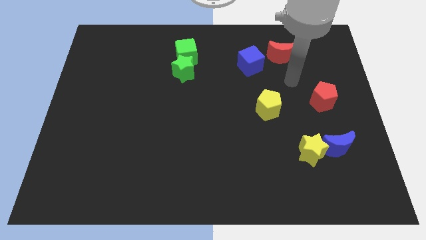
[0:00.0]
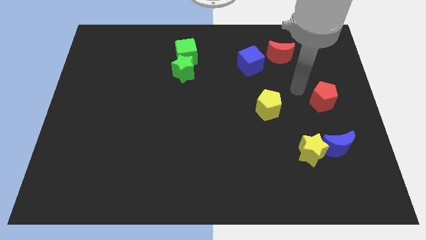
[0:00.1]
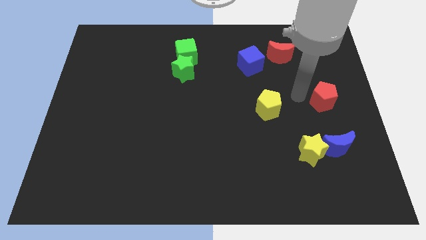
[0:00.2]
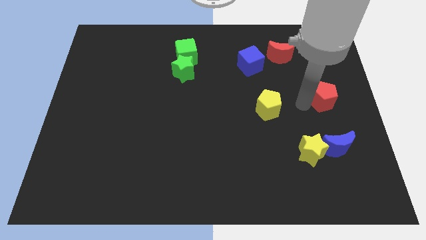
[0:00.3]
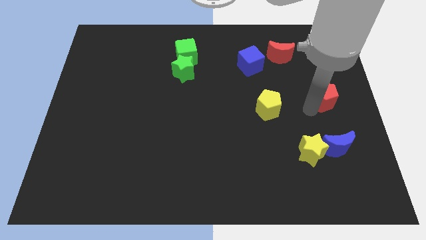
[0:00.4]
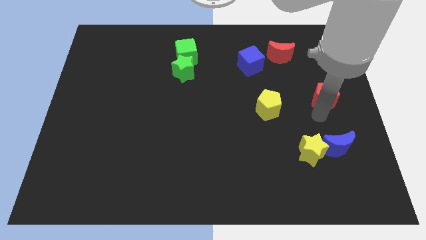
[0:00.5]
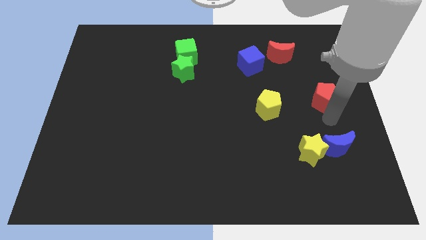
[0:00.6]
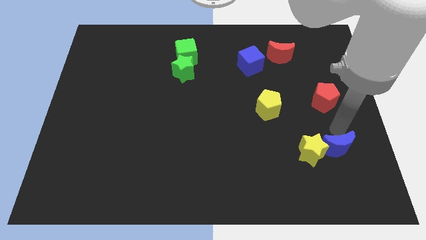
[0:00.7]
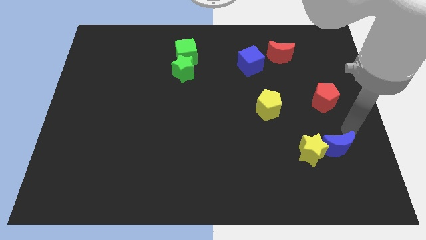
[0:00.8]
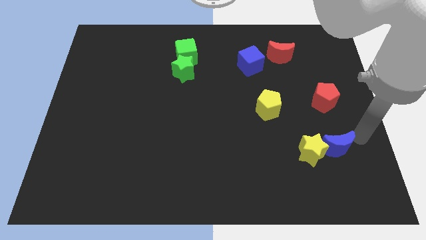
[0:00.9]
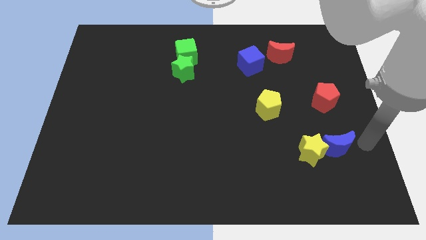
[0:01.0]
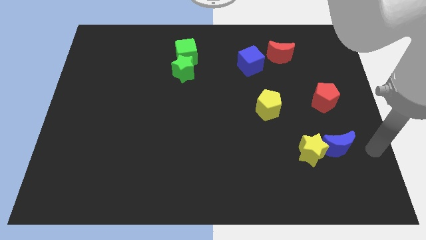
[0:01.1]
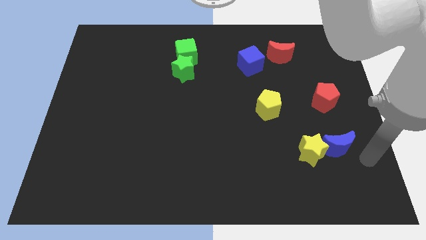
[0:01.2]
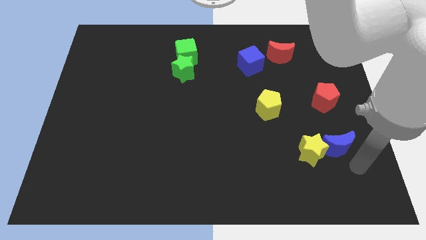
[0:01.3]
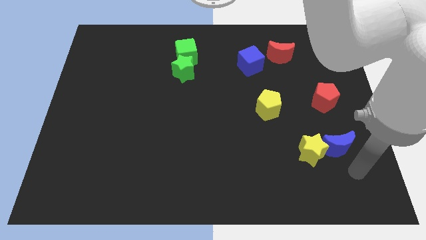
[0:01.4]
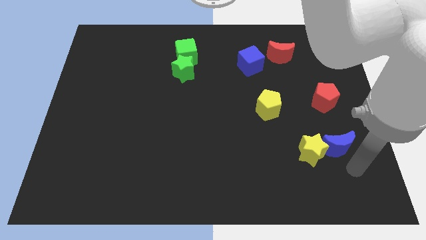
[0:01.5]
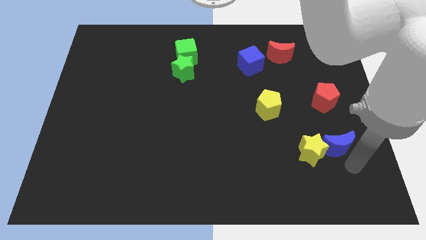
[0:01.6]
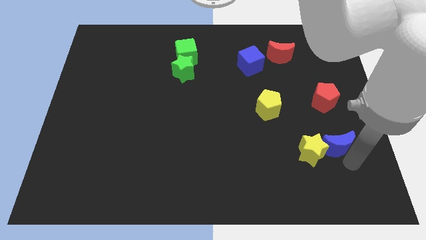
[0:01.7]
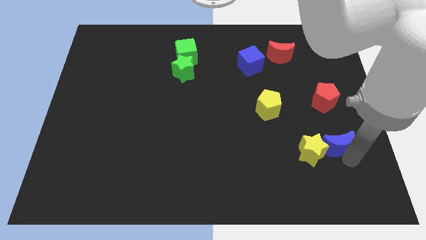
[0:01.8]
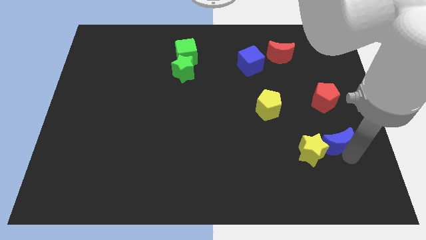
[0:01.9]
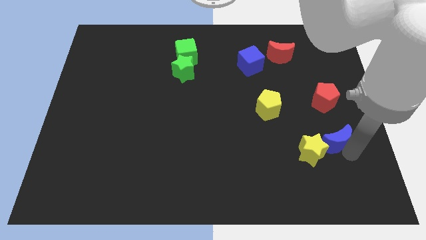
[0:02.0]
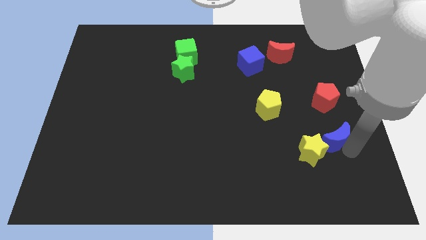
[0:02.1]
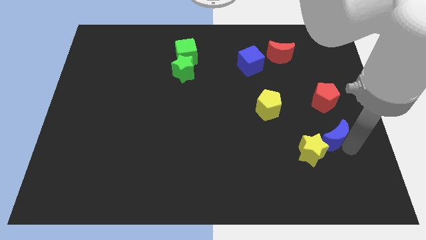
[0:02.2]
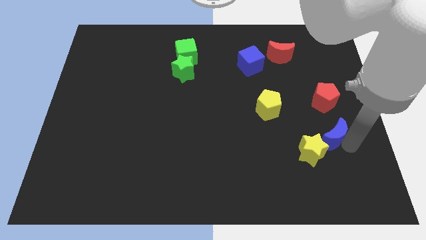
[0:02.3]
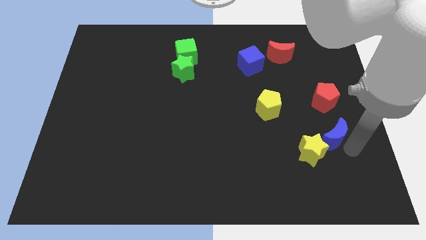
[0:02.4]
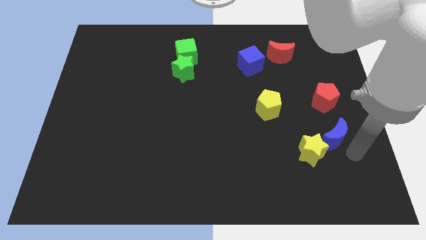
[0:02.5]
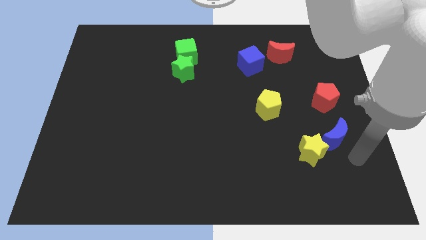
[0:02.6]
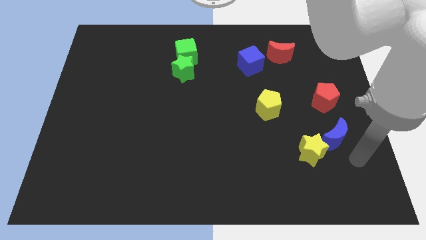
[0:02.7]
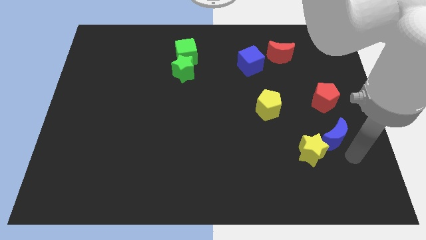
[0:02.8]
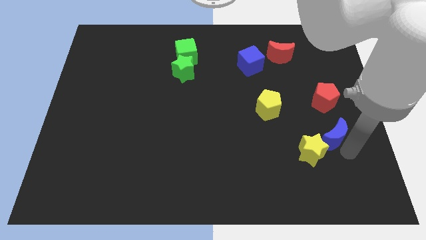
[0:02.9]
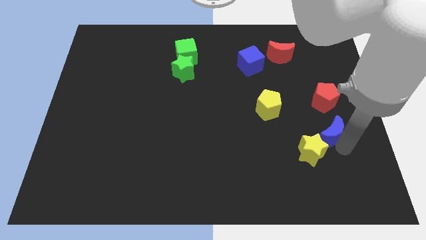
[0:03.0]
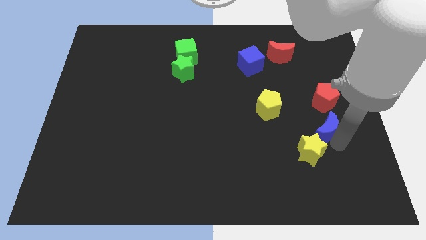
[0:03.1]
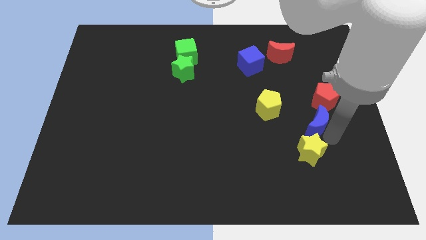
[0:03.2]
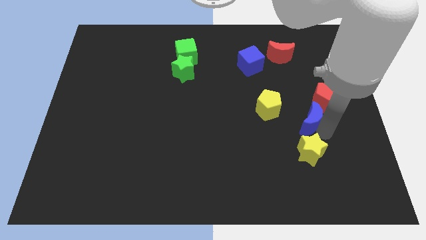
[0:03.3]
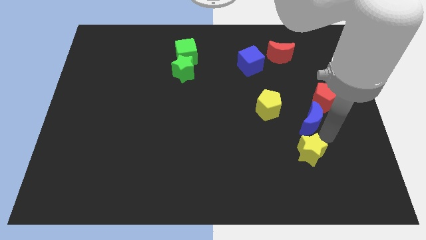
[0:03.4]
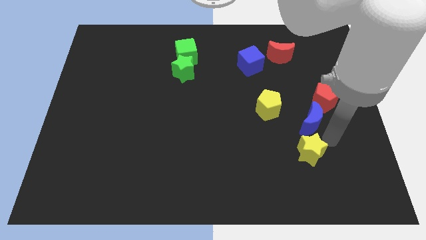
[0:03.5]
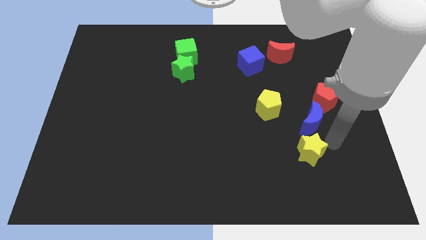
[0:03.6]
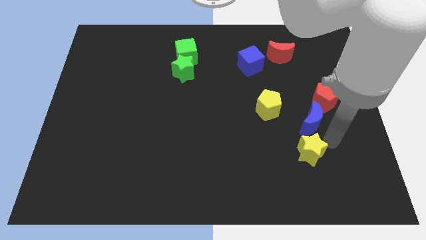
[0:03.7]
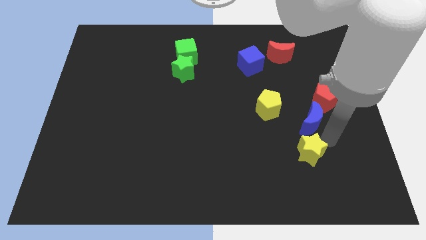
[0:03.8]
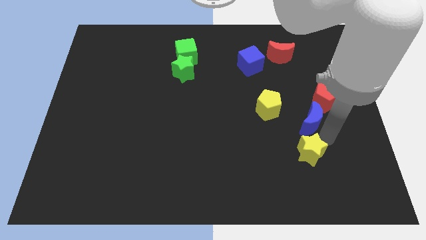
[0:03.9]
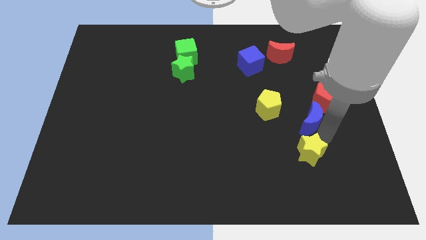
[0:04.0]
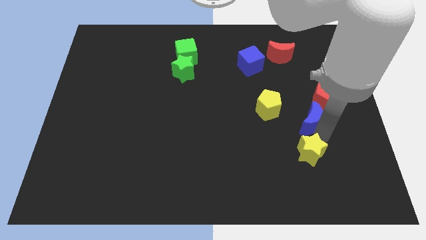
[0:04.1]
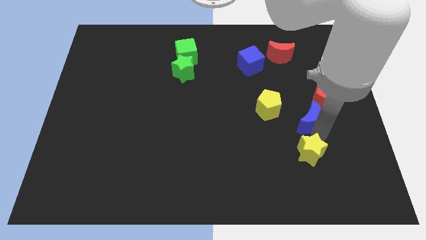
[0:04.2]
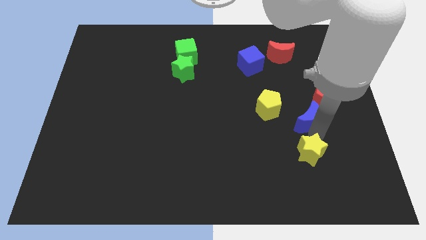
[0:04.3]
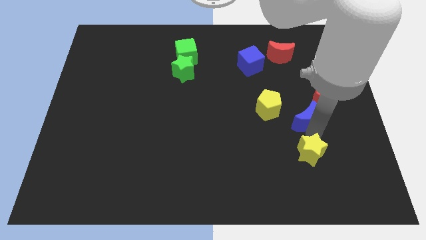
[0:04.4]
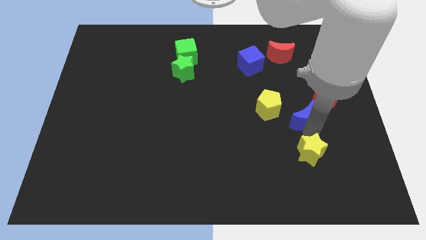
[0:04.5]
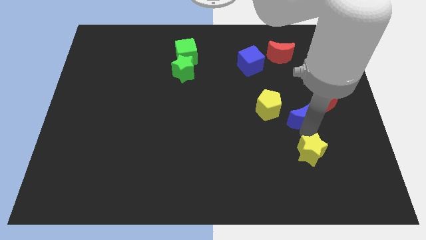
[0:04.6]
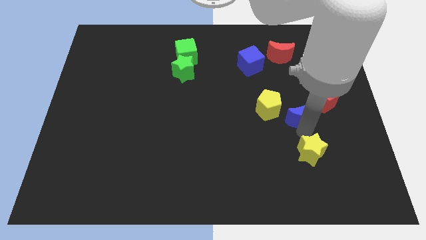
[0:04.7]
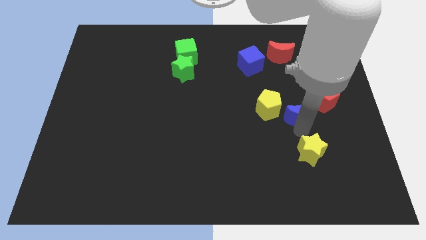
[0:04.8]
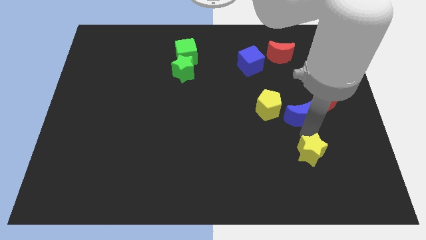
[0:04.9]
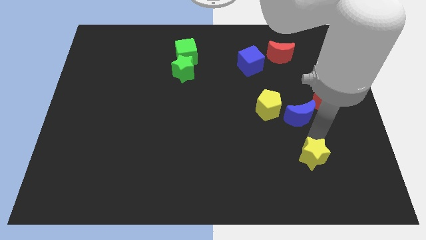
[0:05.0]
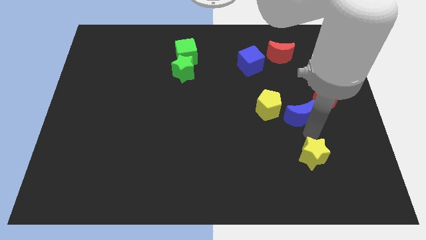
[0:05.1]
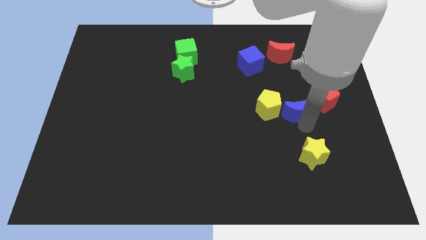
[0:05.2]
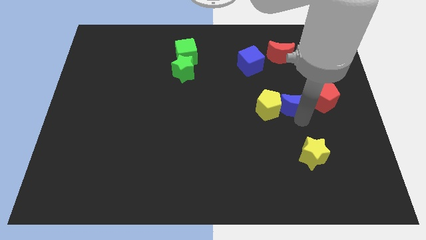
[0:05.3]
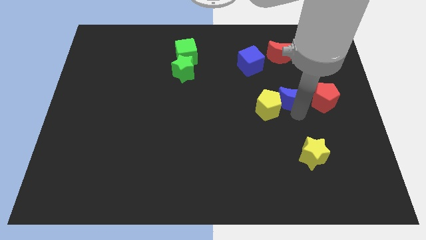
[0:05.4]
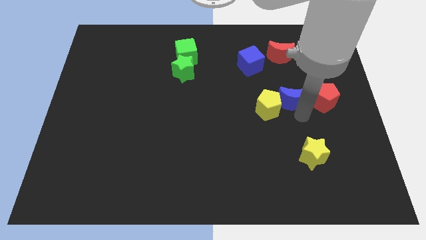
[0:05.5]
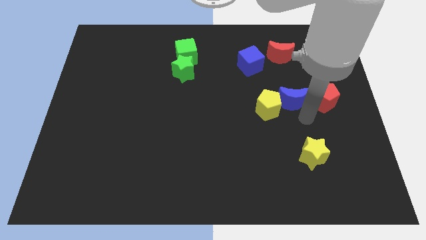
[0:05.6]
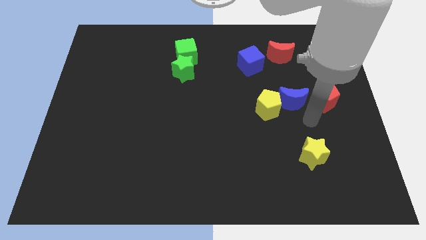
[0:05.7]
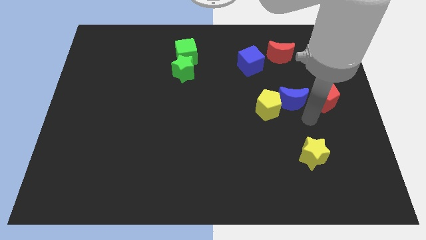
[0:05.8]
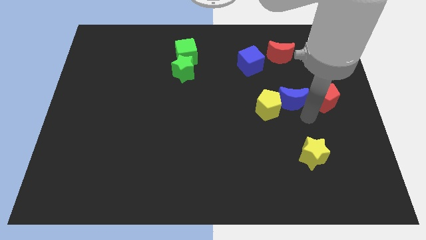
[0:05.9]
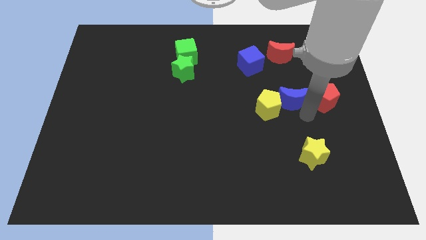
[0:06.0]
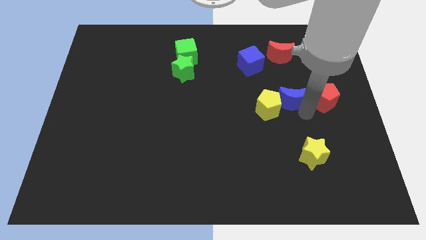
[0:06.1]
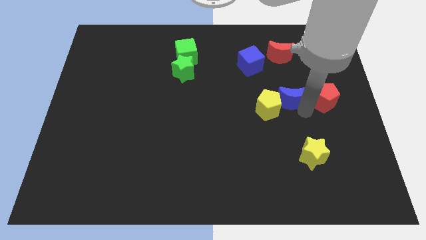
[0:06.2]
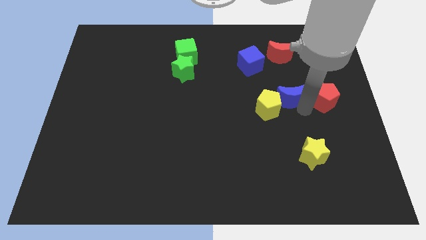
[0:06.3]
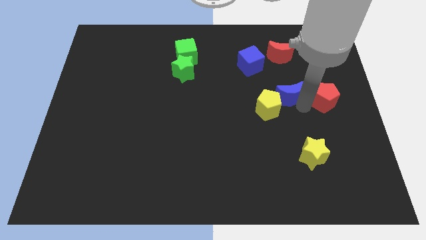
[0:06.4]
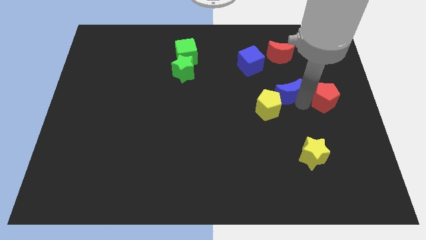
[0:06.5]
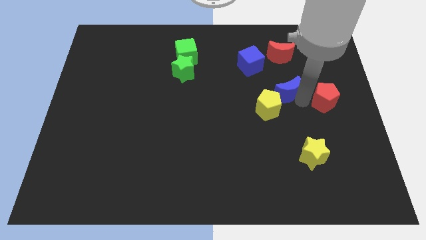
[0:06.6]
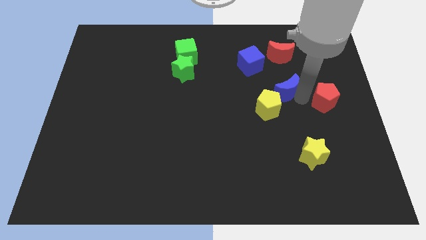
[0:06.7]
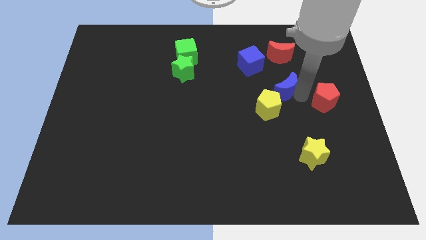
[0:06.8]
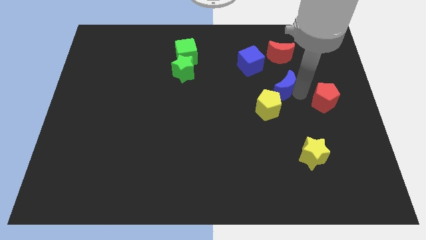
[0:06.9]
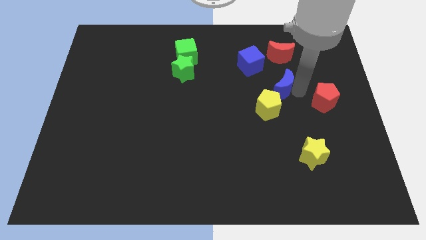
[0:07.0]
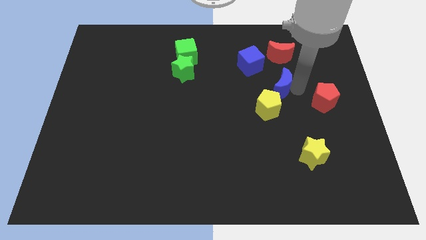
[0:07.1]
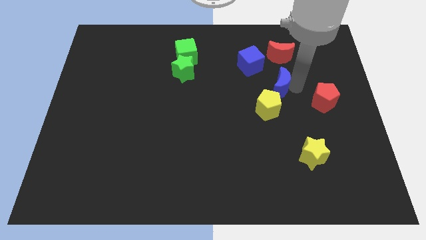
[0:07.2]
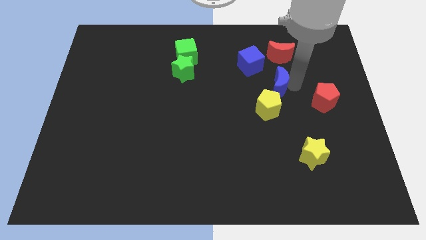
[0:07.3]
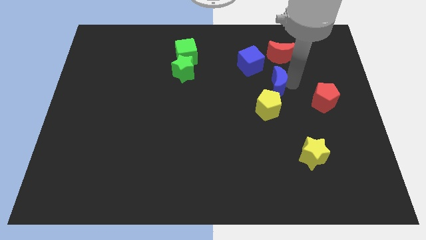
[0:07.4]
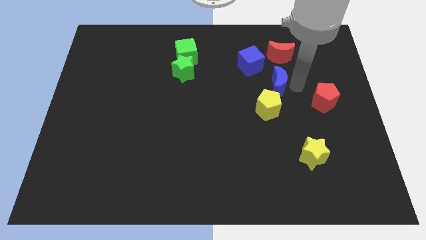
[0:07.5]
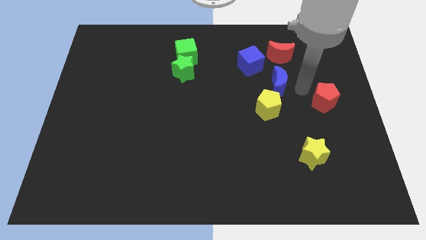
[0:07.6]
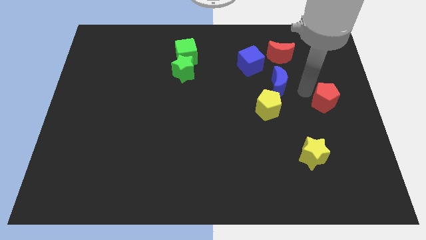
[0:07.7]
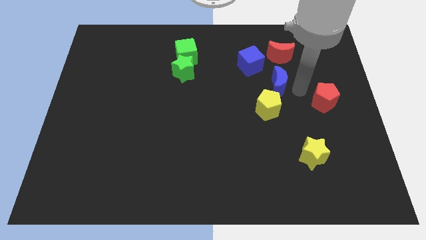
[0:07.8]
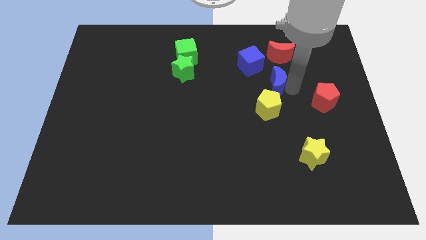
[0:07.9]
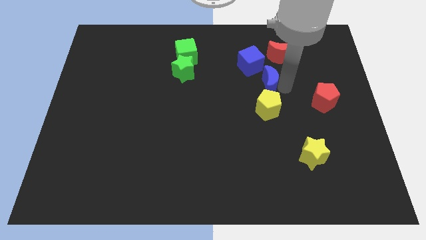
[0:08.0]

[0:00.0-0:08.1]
slide the blue moon upwards and then to the left
